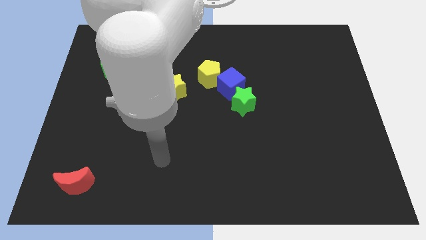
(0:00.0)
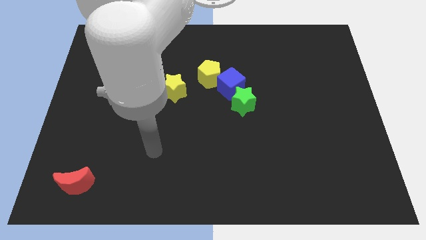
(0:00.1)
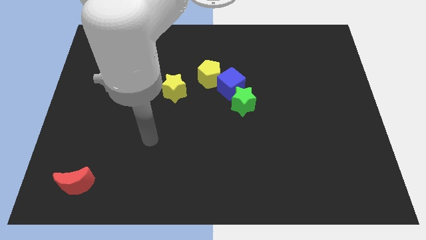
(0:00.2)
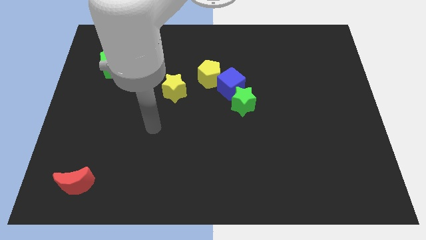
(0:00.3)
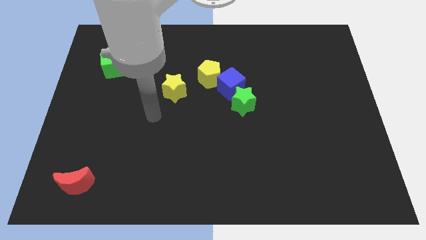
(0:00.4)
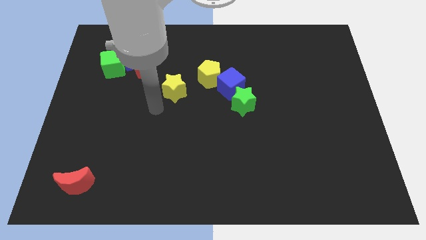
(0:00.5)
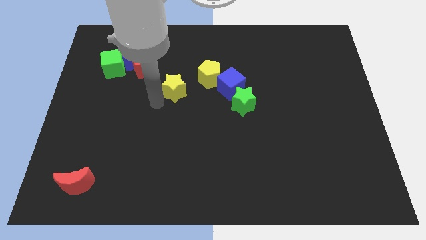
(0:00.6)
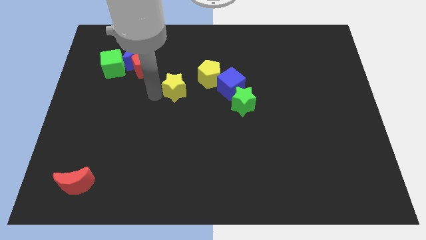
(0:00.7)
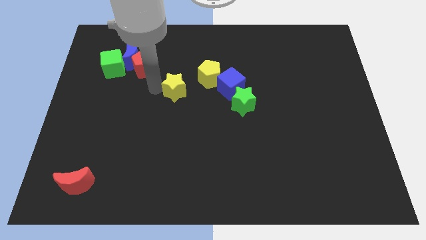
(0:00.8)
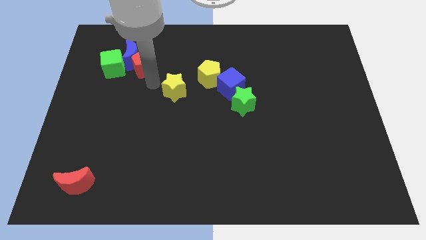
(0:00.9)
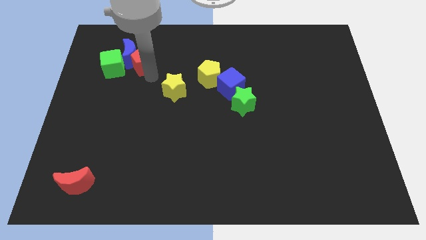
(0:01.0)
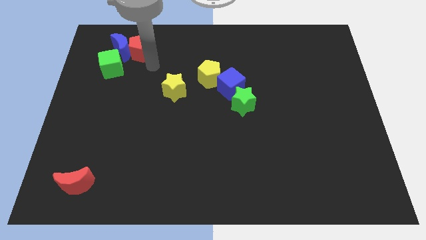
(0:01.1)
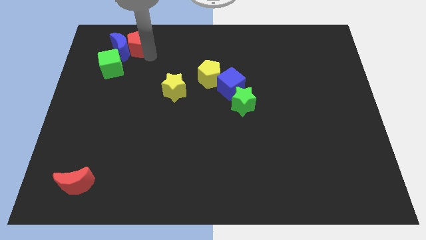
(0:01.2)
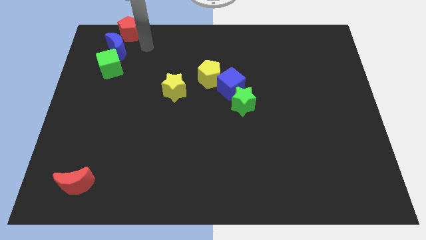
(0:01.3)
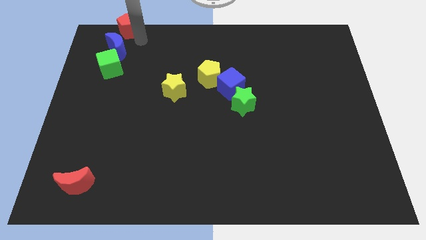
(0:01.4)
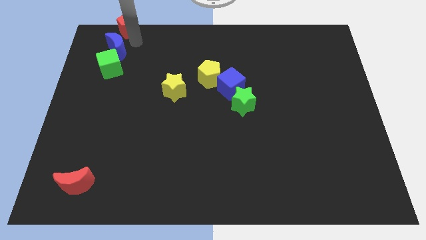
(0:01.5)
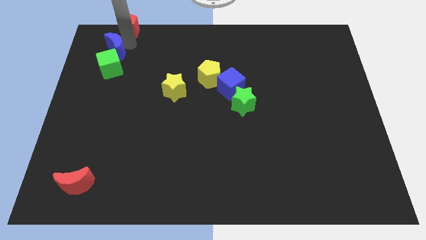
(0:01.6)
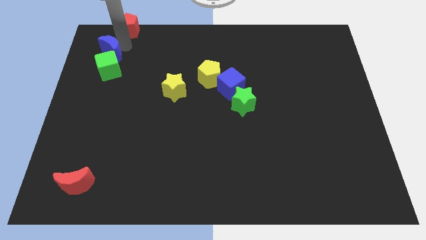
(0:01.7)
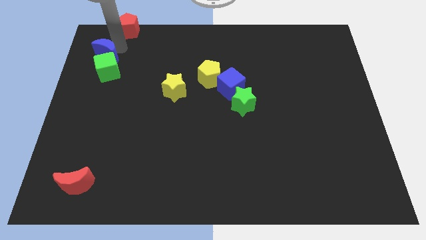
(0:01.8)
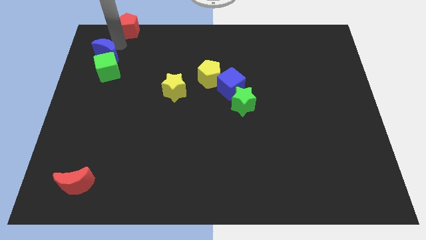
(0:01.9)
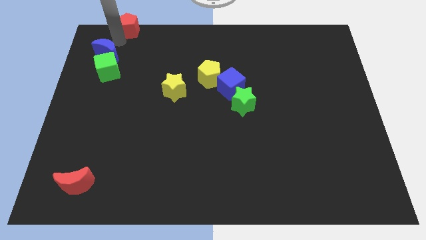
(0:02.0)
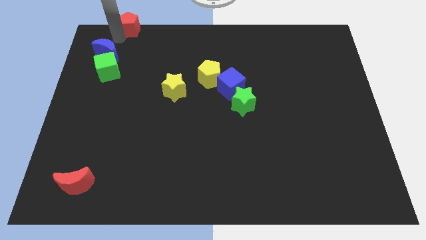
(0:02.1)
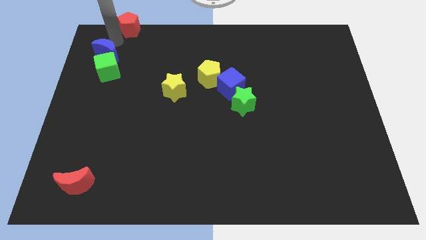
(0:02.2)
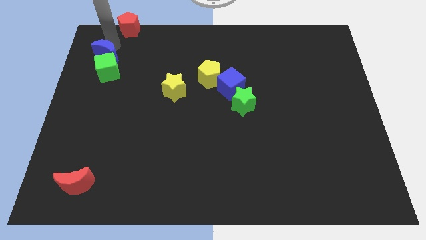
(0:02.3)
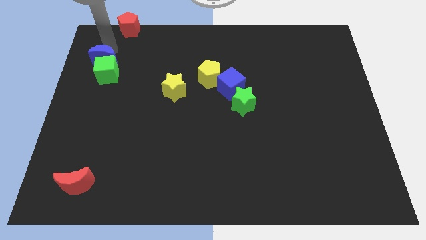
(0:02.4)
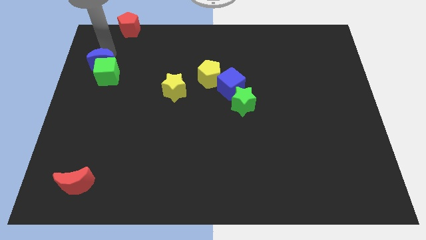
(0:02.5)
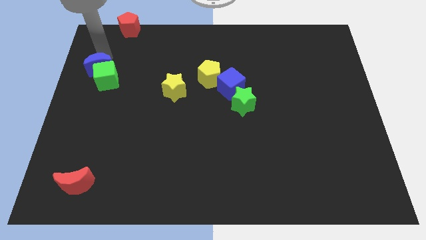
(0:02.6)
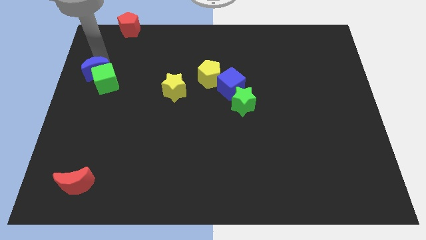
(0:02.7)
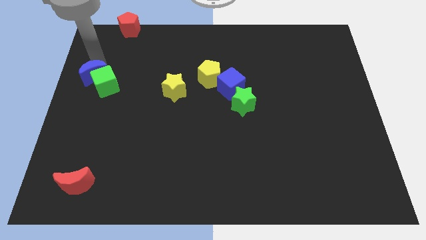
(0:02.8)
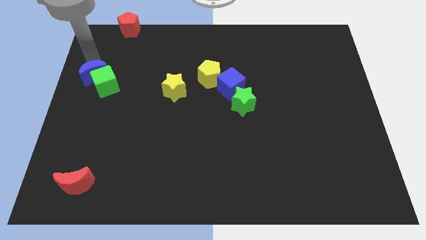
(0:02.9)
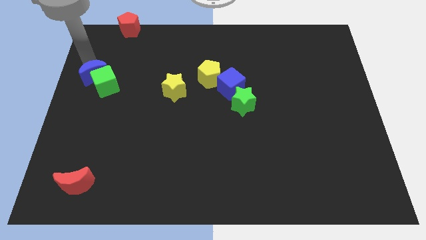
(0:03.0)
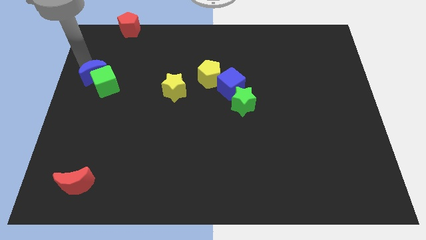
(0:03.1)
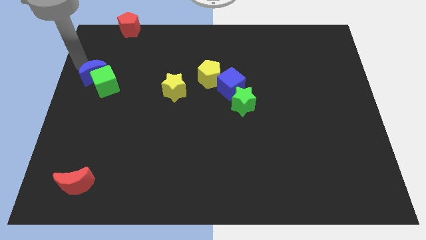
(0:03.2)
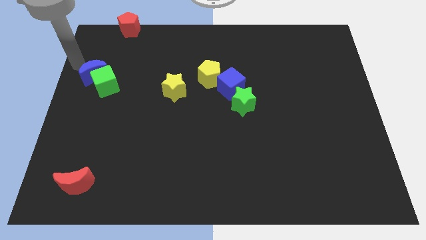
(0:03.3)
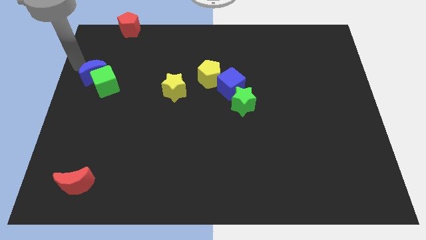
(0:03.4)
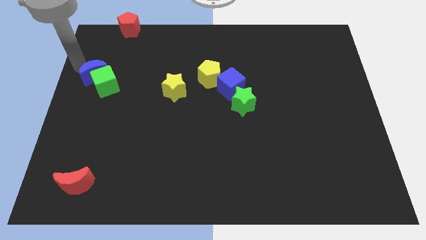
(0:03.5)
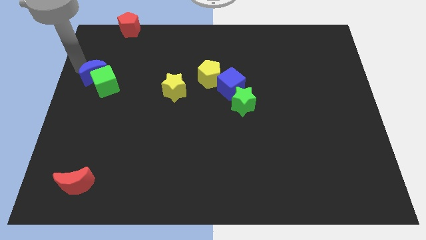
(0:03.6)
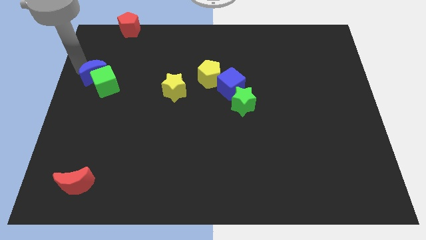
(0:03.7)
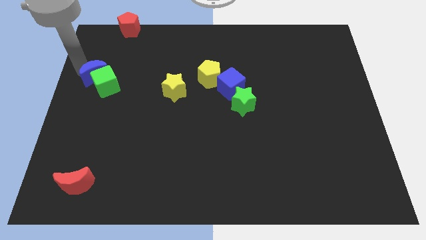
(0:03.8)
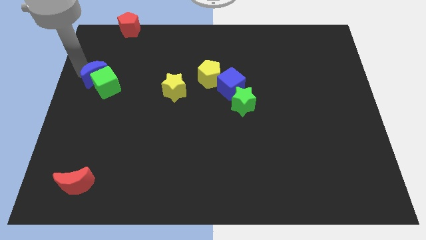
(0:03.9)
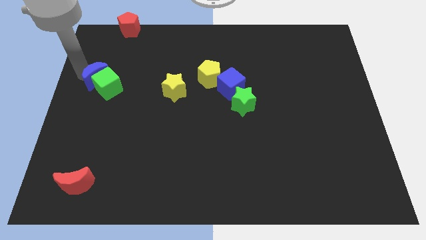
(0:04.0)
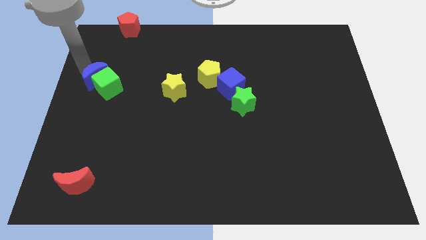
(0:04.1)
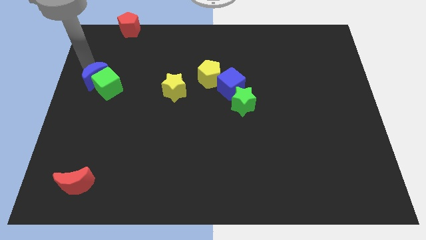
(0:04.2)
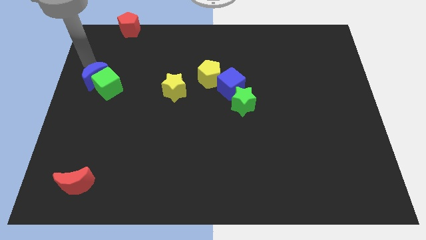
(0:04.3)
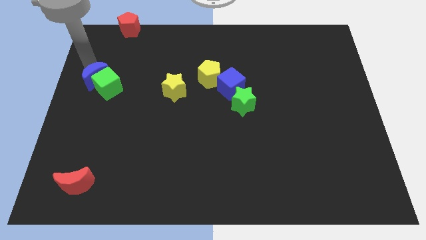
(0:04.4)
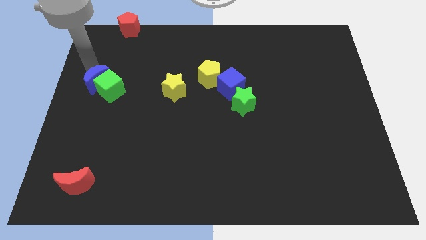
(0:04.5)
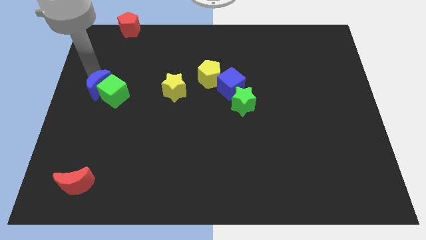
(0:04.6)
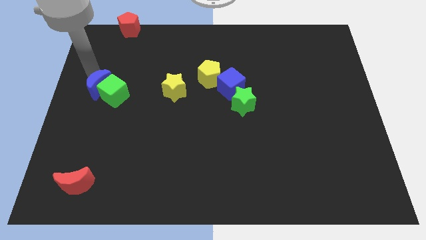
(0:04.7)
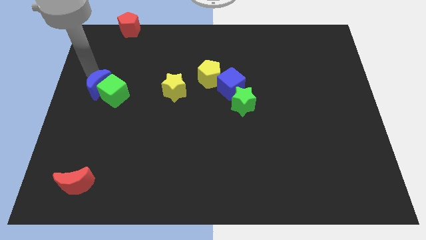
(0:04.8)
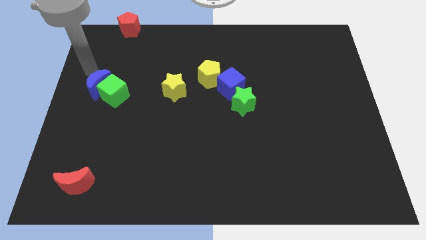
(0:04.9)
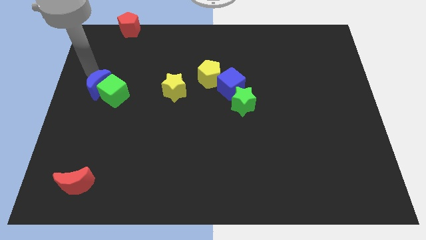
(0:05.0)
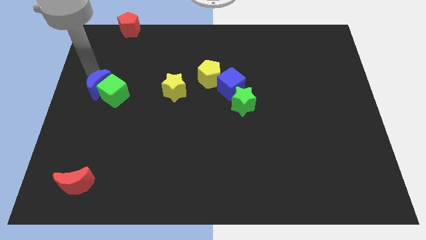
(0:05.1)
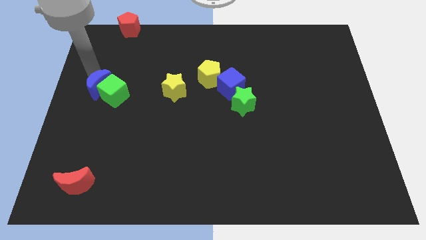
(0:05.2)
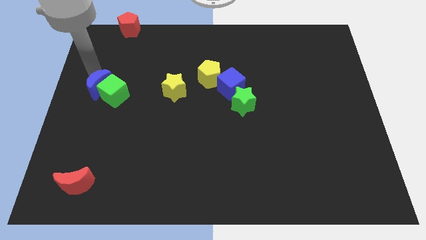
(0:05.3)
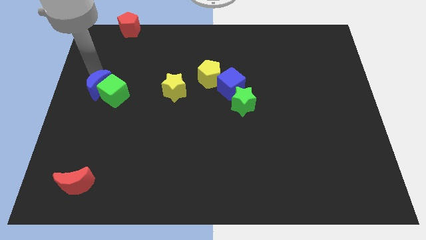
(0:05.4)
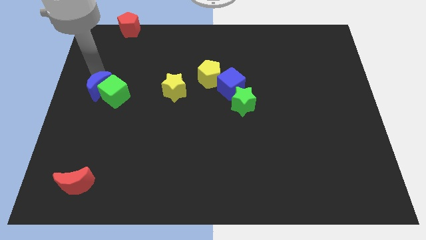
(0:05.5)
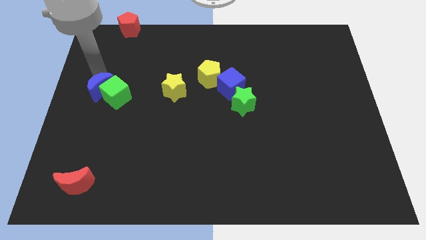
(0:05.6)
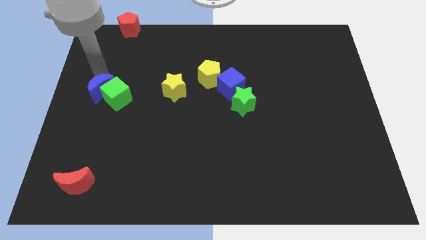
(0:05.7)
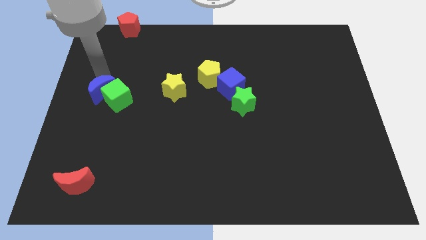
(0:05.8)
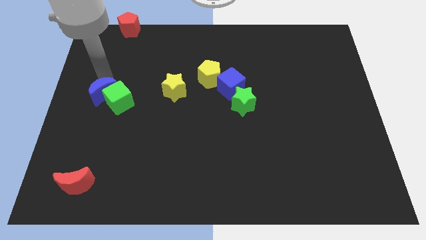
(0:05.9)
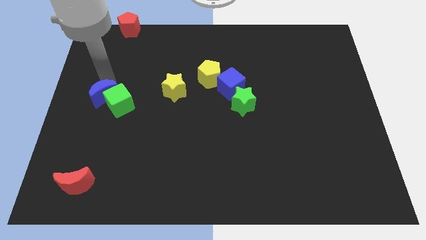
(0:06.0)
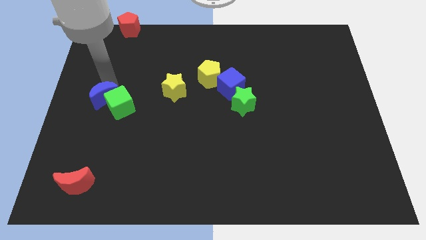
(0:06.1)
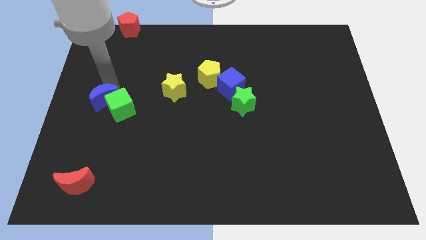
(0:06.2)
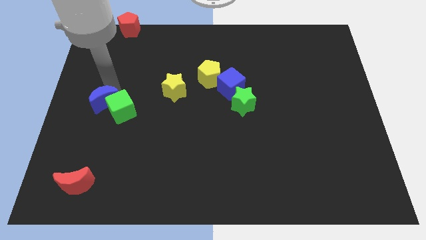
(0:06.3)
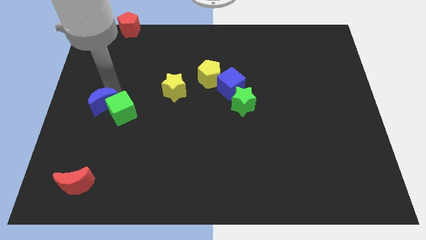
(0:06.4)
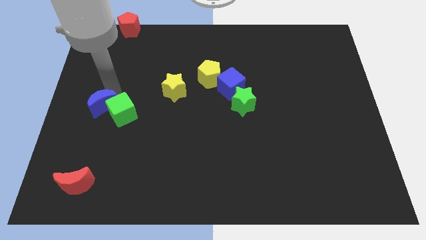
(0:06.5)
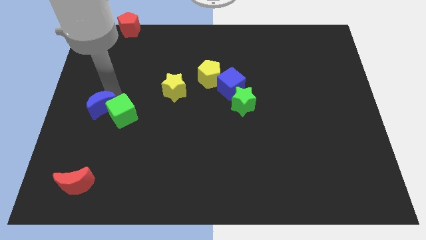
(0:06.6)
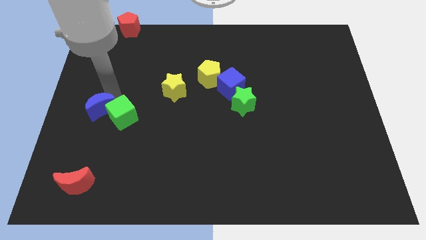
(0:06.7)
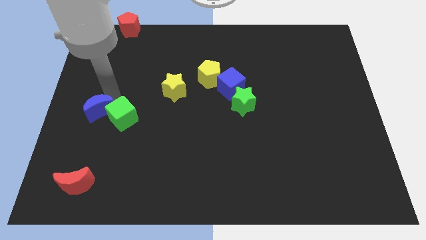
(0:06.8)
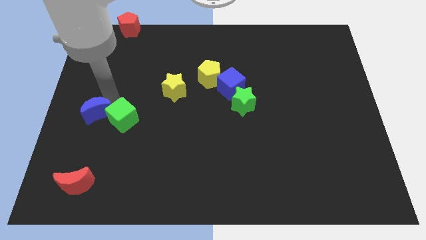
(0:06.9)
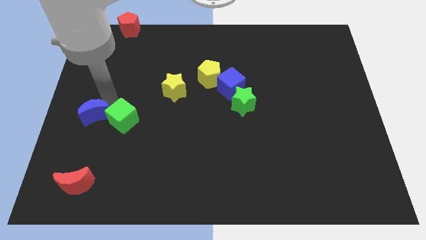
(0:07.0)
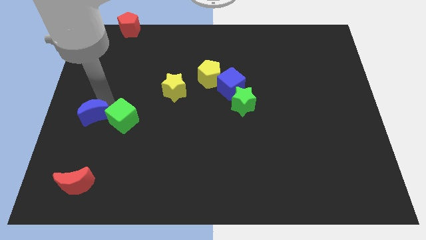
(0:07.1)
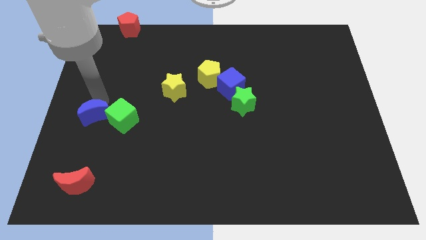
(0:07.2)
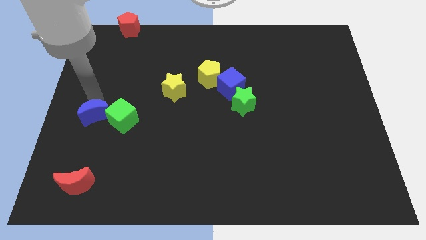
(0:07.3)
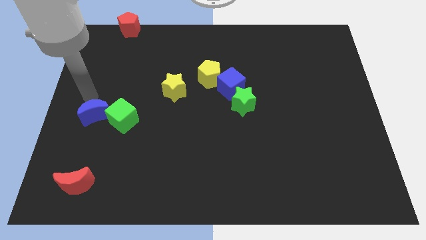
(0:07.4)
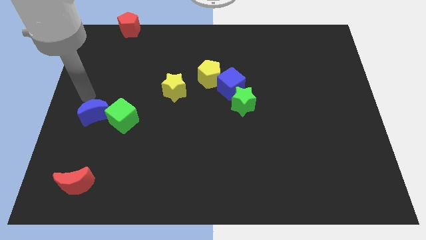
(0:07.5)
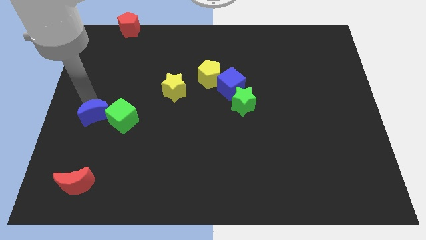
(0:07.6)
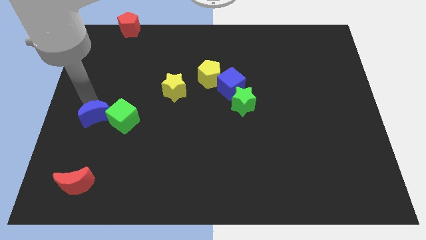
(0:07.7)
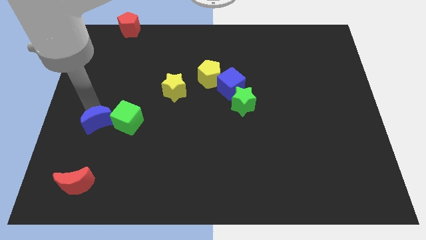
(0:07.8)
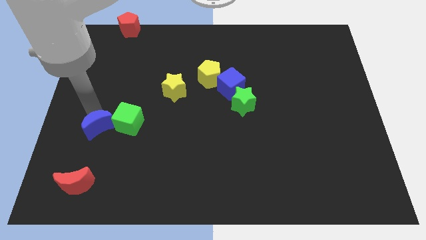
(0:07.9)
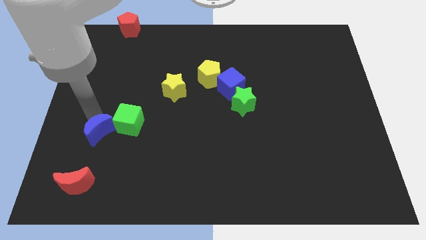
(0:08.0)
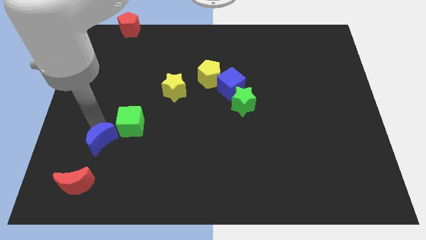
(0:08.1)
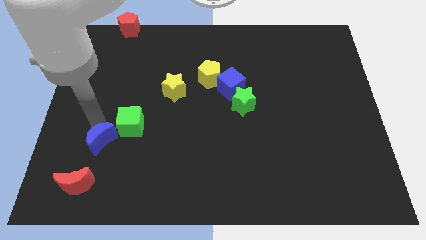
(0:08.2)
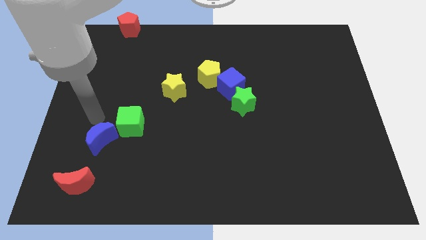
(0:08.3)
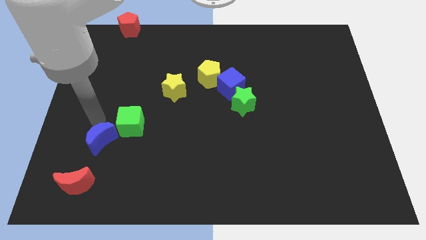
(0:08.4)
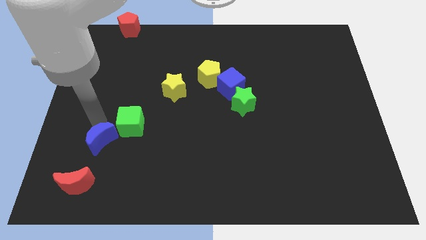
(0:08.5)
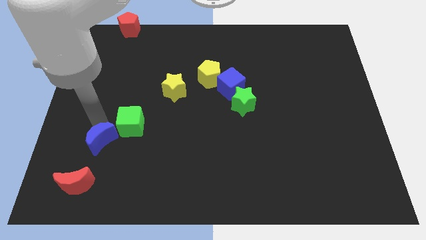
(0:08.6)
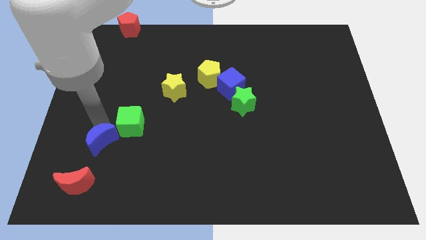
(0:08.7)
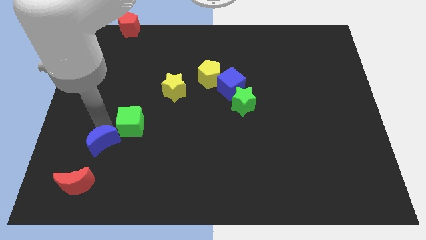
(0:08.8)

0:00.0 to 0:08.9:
push the blue moon diagonally up and to the right of the red moon
